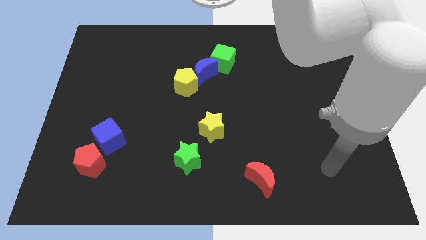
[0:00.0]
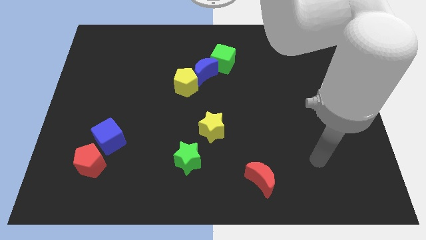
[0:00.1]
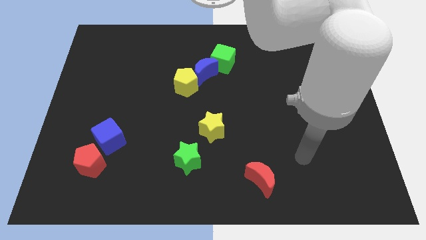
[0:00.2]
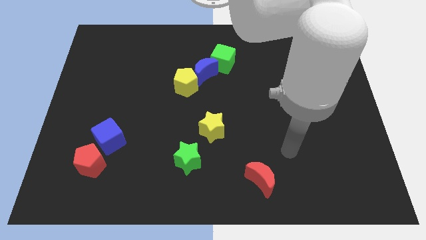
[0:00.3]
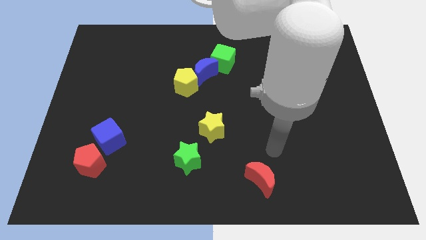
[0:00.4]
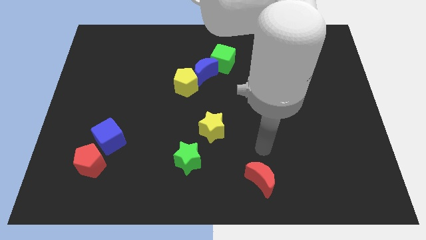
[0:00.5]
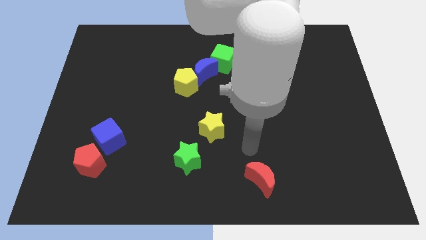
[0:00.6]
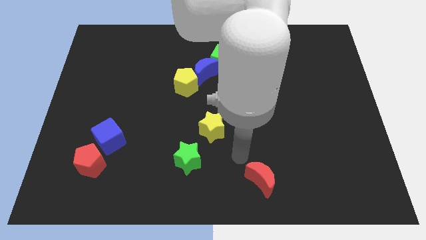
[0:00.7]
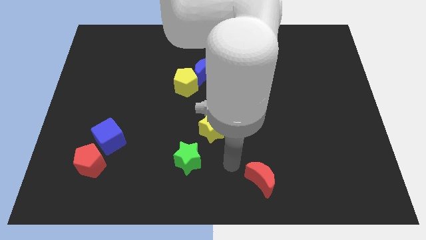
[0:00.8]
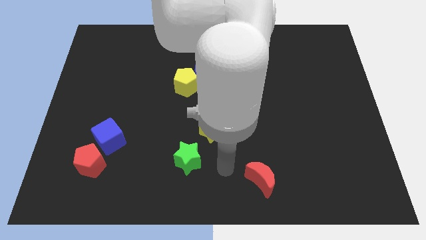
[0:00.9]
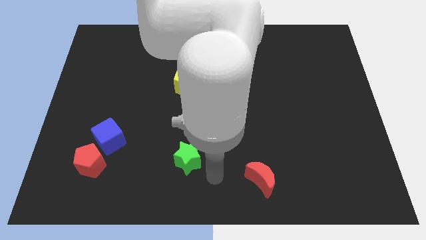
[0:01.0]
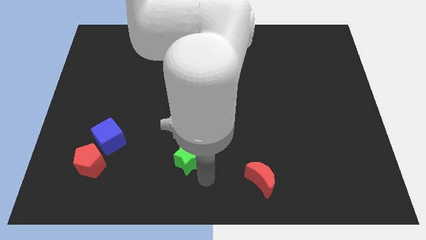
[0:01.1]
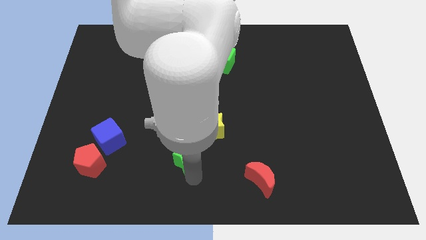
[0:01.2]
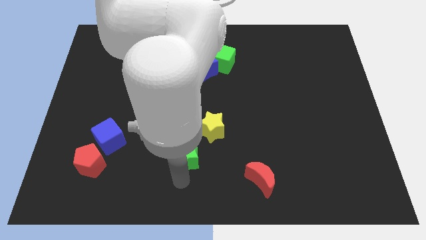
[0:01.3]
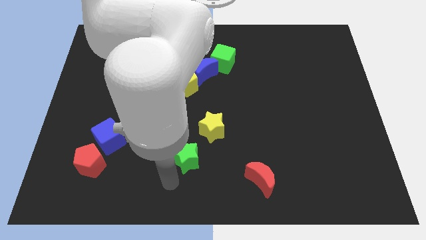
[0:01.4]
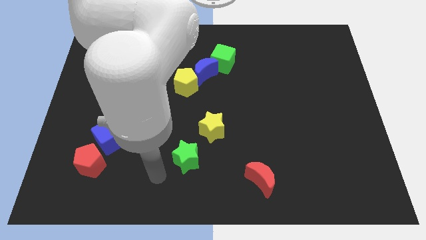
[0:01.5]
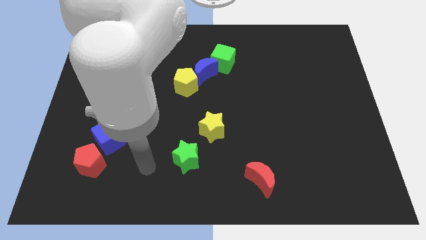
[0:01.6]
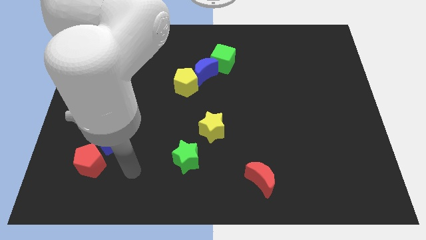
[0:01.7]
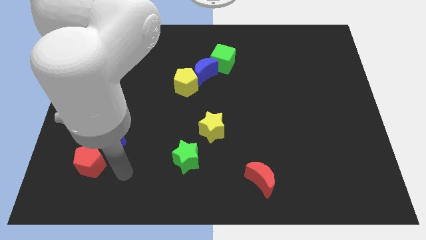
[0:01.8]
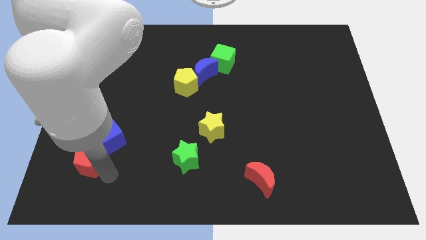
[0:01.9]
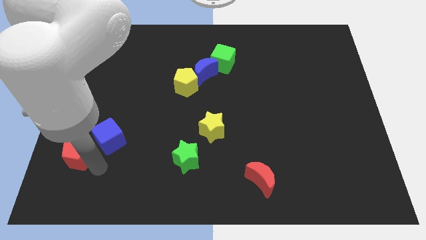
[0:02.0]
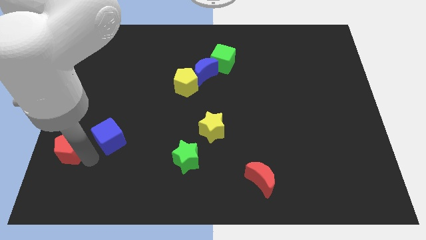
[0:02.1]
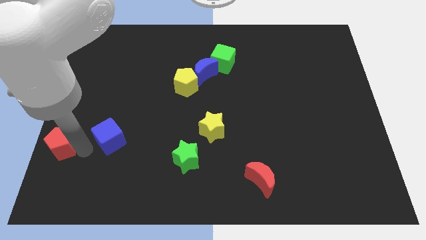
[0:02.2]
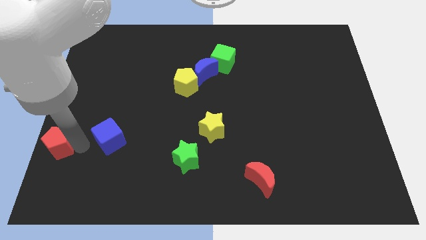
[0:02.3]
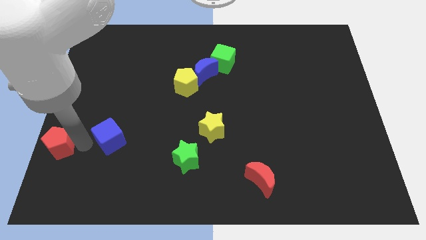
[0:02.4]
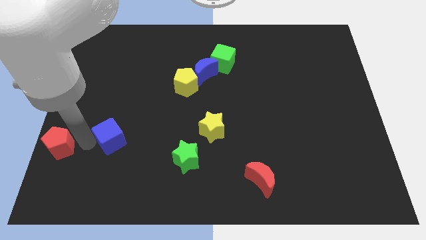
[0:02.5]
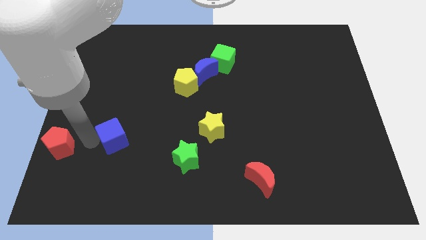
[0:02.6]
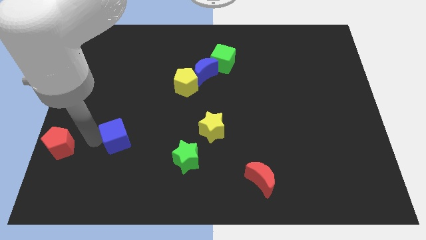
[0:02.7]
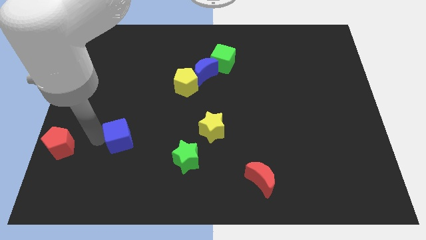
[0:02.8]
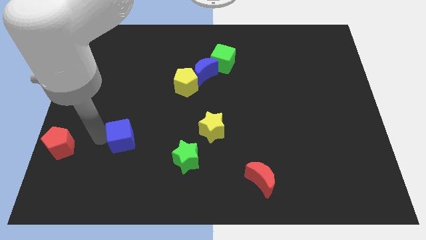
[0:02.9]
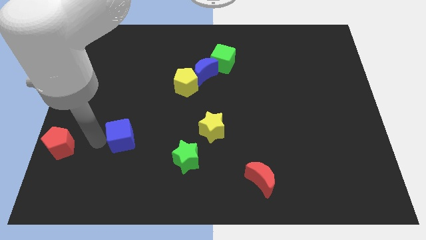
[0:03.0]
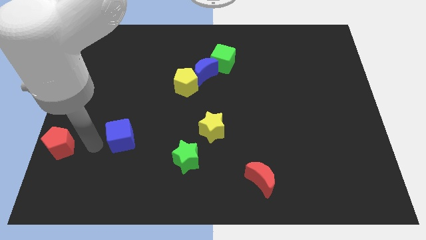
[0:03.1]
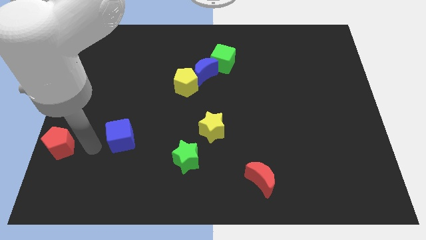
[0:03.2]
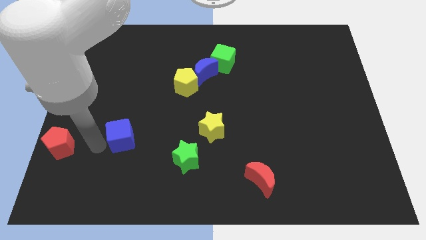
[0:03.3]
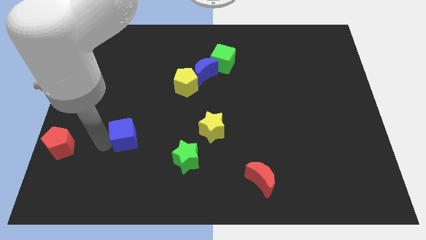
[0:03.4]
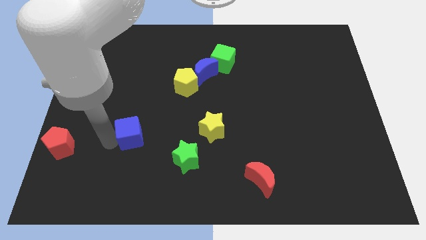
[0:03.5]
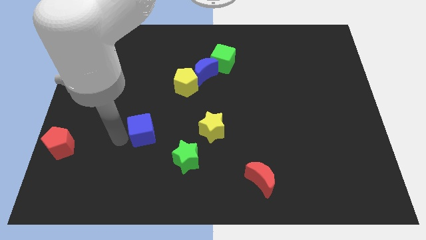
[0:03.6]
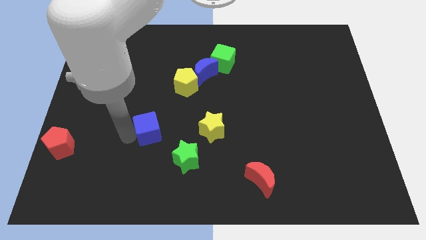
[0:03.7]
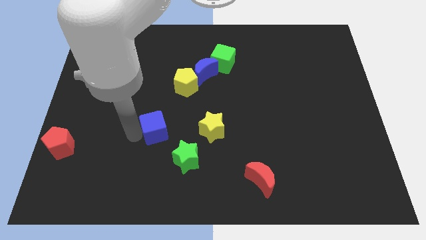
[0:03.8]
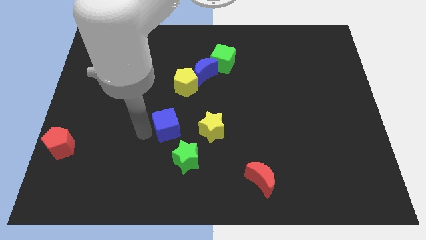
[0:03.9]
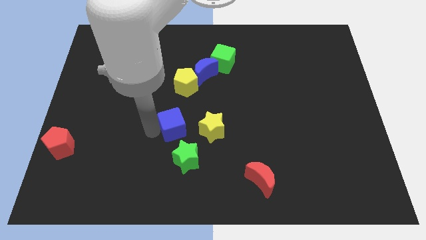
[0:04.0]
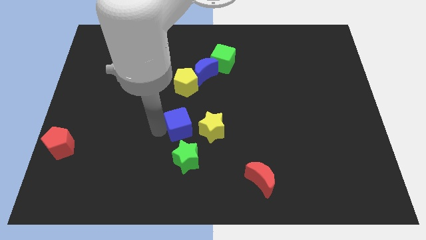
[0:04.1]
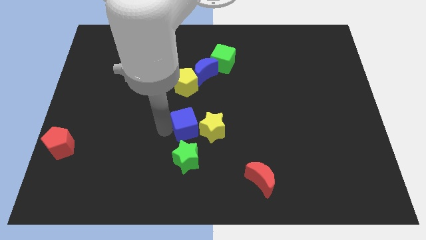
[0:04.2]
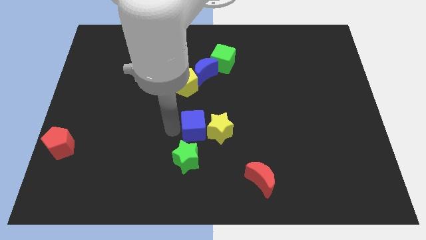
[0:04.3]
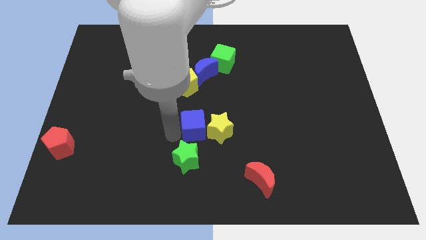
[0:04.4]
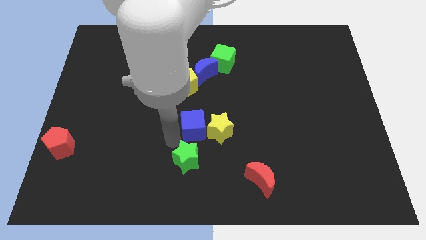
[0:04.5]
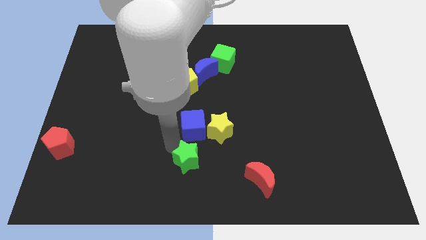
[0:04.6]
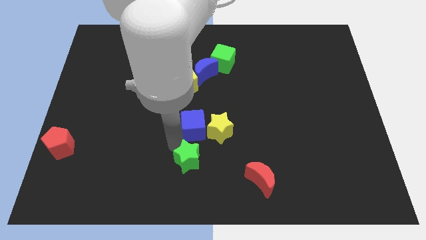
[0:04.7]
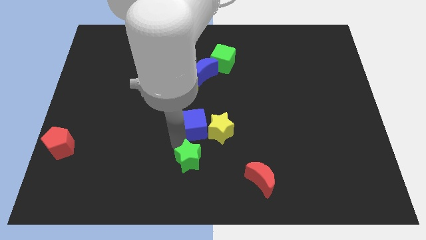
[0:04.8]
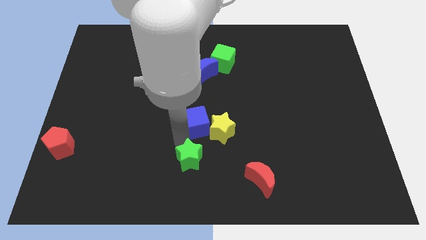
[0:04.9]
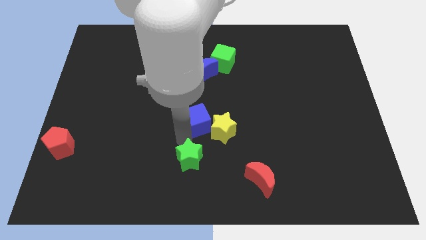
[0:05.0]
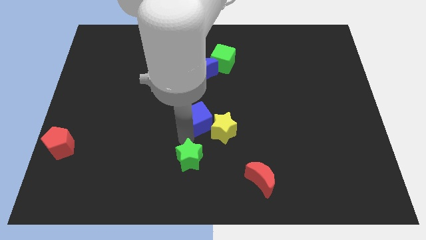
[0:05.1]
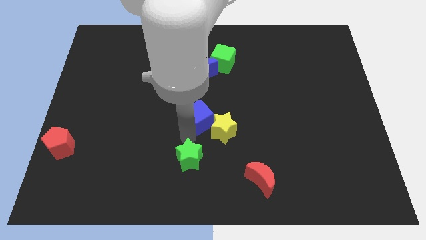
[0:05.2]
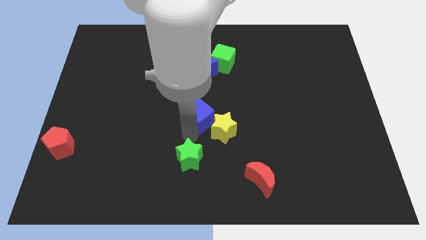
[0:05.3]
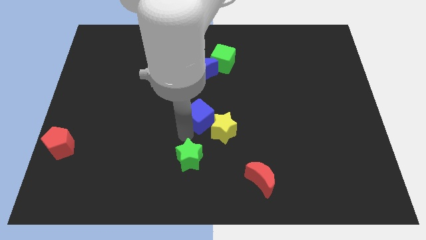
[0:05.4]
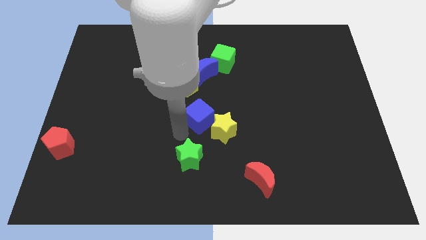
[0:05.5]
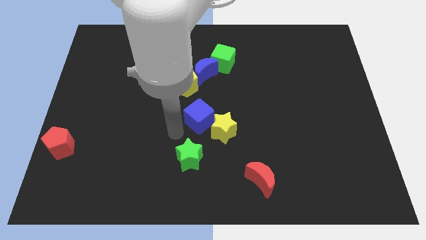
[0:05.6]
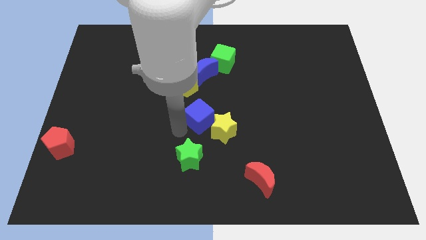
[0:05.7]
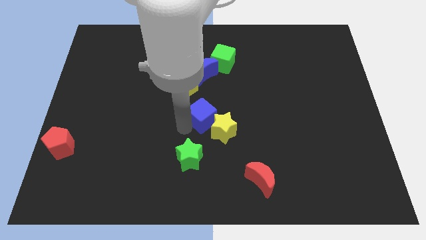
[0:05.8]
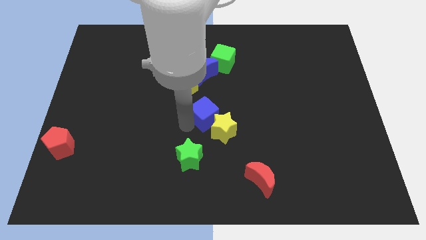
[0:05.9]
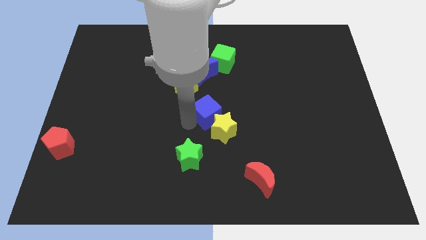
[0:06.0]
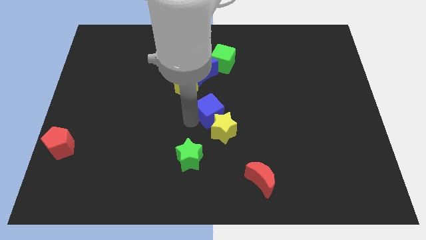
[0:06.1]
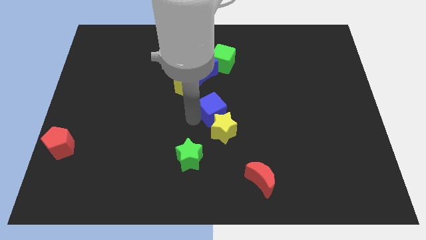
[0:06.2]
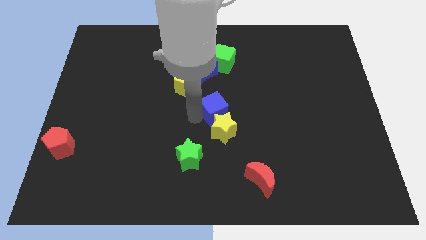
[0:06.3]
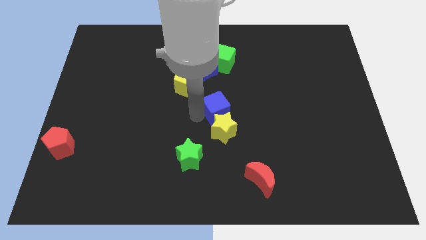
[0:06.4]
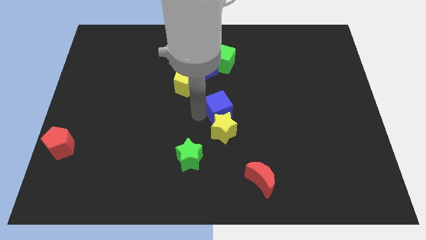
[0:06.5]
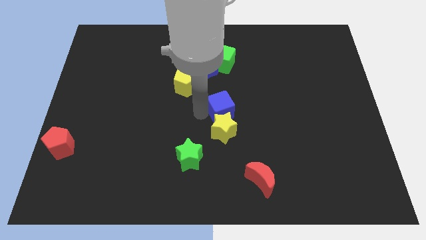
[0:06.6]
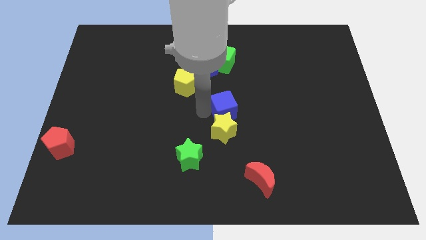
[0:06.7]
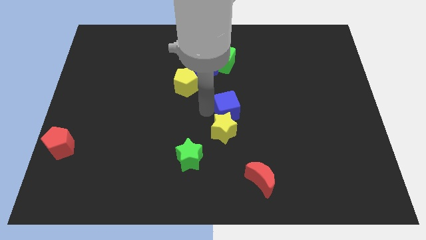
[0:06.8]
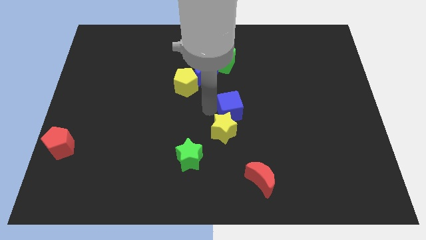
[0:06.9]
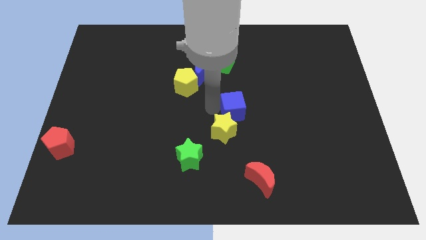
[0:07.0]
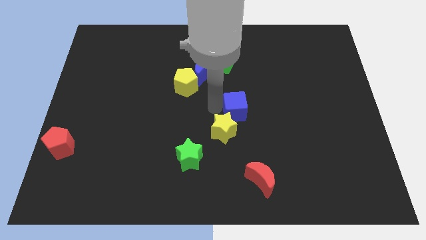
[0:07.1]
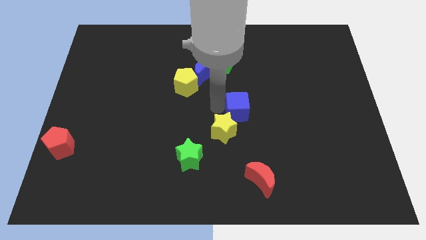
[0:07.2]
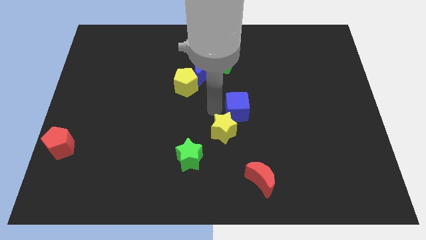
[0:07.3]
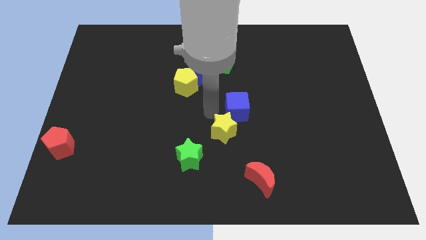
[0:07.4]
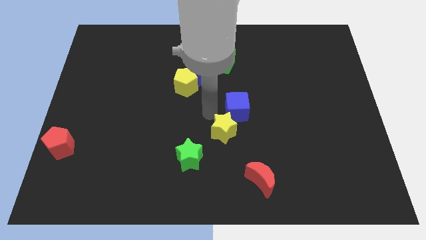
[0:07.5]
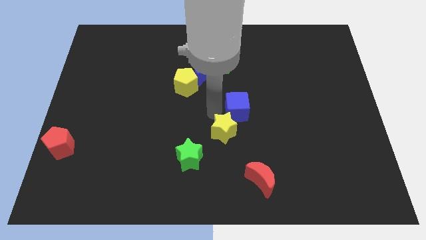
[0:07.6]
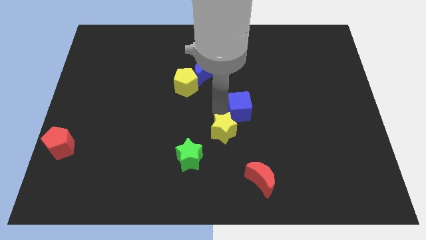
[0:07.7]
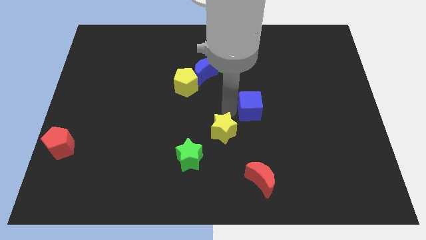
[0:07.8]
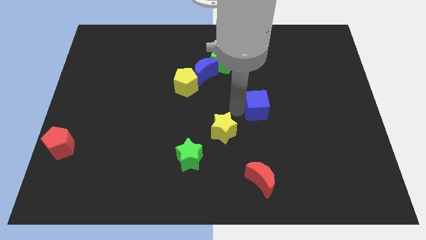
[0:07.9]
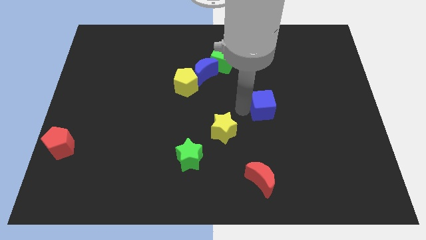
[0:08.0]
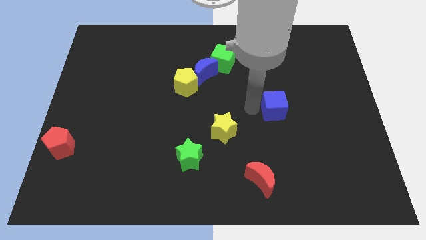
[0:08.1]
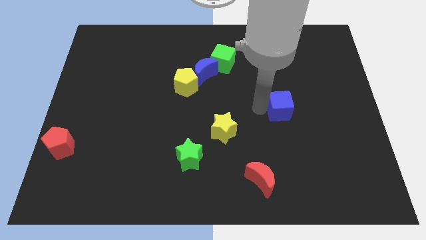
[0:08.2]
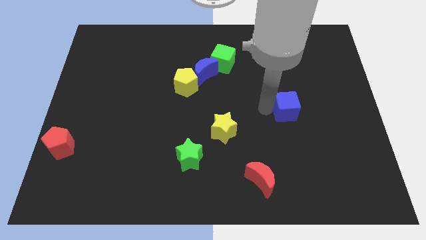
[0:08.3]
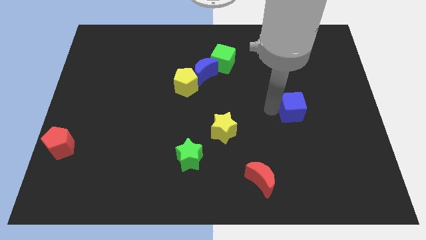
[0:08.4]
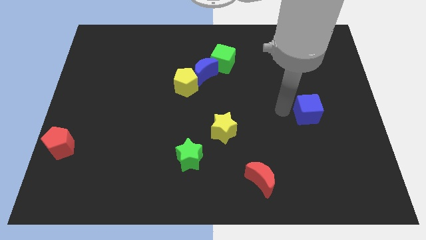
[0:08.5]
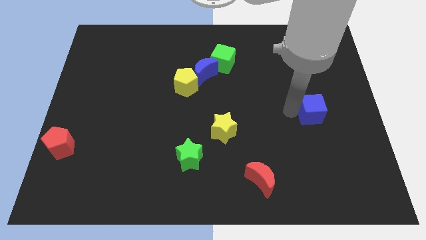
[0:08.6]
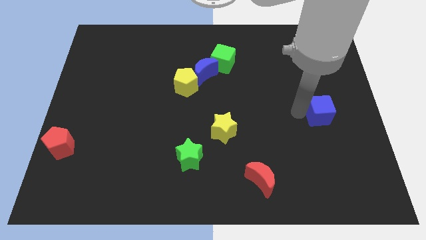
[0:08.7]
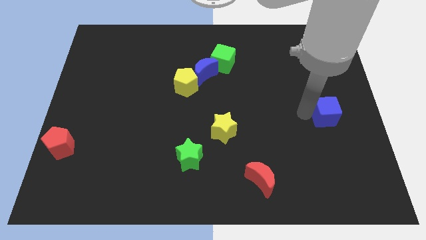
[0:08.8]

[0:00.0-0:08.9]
move the blue cube to the right side
